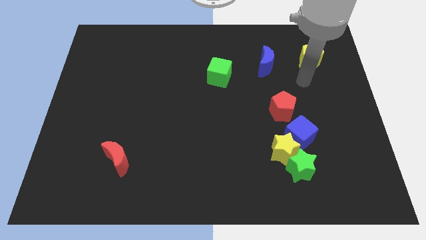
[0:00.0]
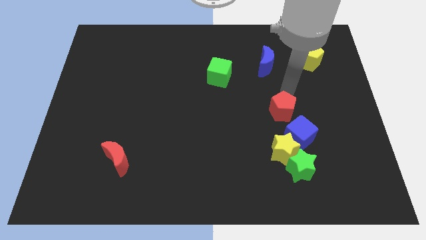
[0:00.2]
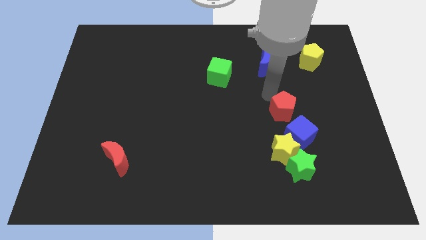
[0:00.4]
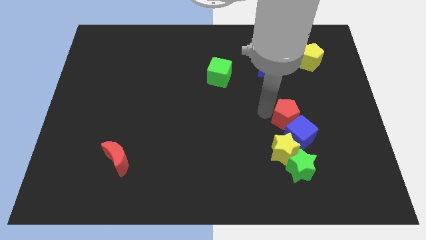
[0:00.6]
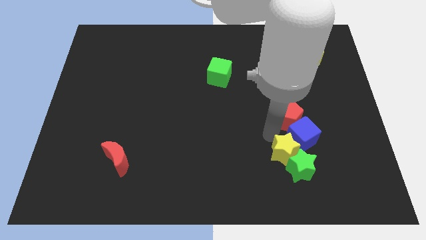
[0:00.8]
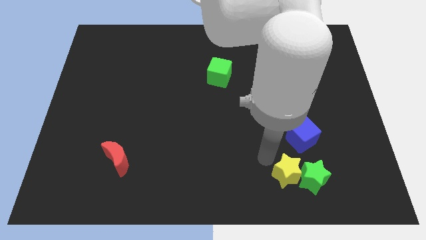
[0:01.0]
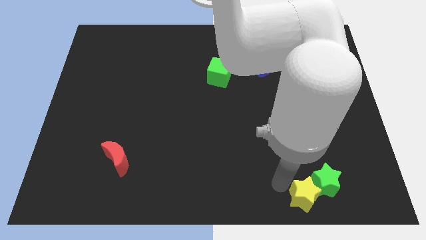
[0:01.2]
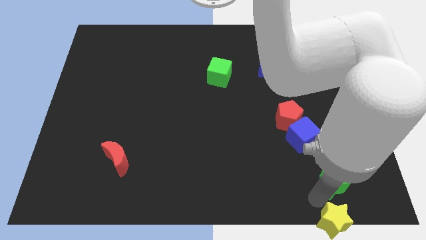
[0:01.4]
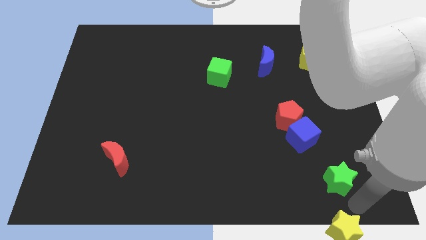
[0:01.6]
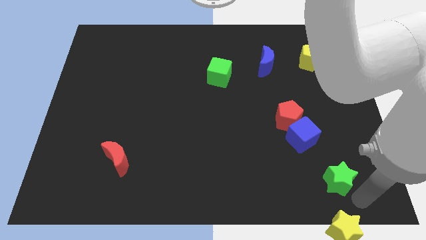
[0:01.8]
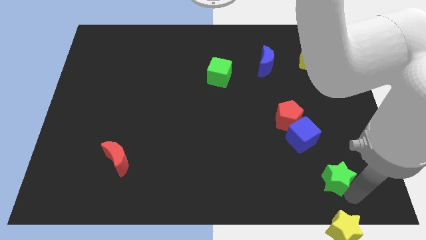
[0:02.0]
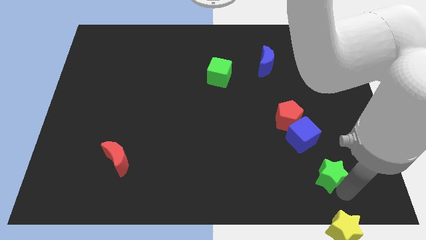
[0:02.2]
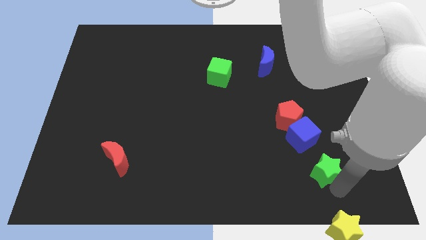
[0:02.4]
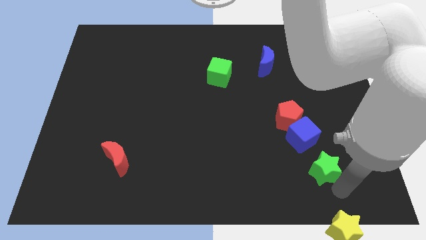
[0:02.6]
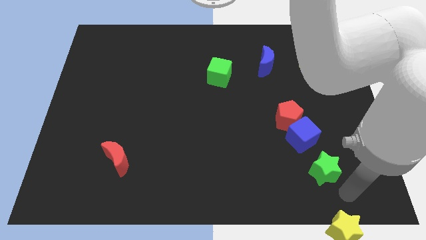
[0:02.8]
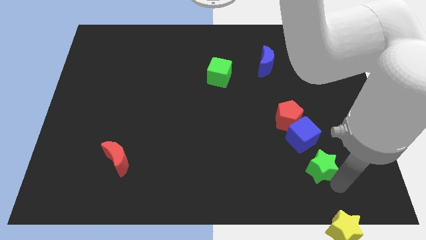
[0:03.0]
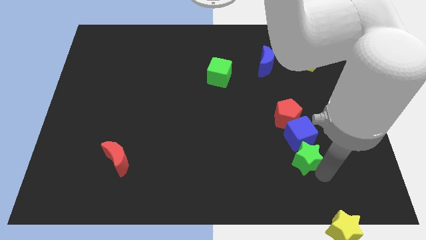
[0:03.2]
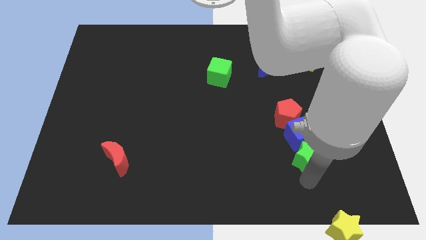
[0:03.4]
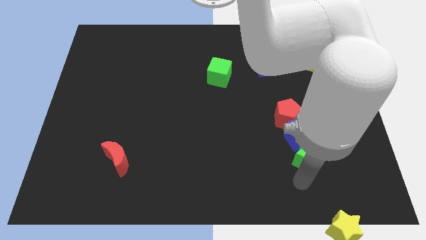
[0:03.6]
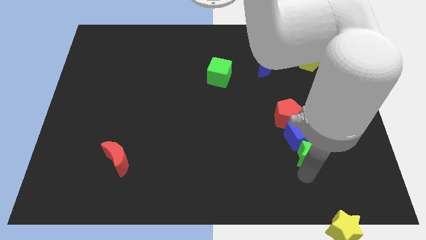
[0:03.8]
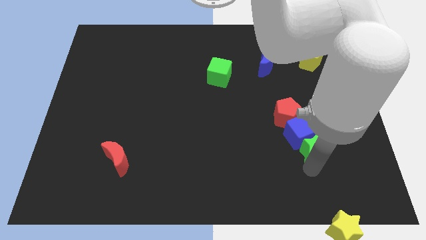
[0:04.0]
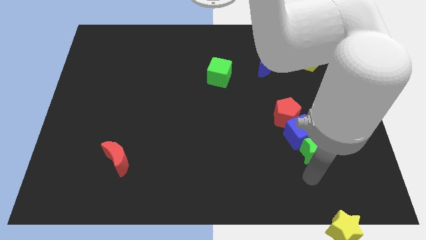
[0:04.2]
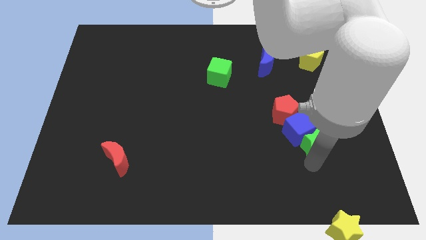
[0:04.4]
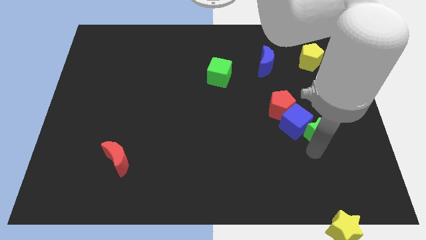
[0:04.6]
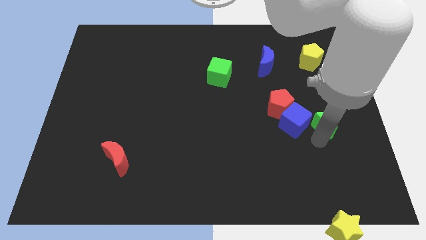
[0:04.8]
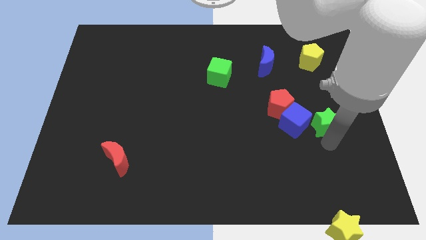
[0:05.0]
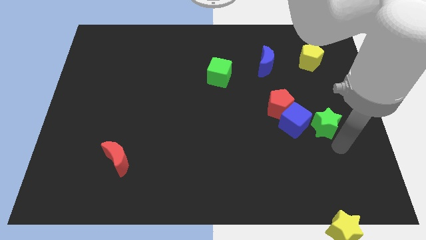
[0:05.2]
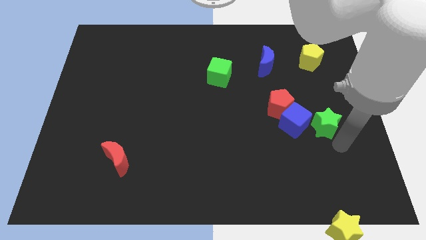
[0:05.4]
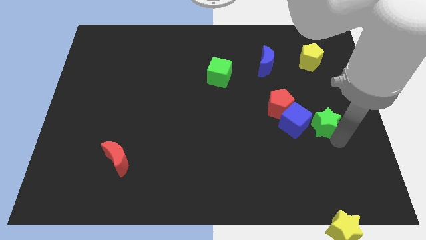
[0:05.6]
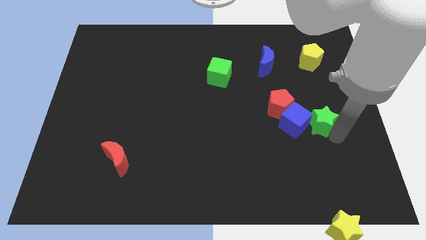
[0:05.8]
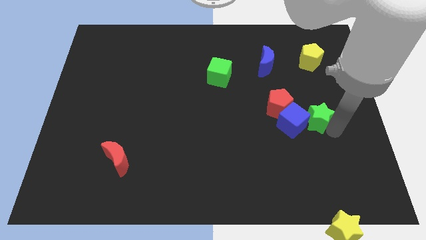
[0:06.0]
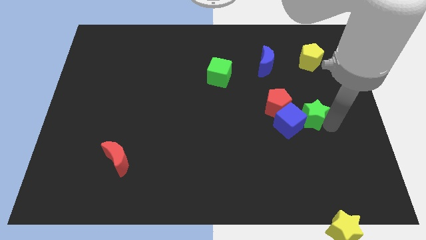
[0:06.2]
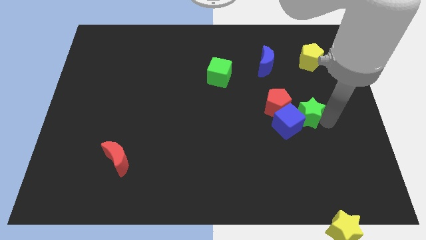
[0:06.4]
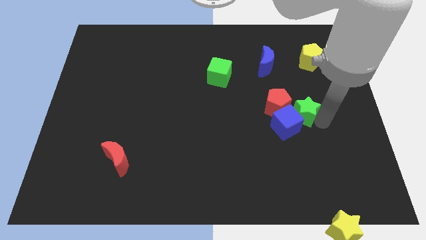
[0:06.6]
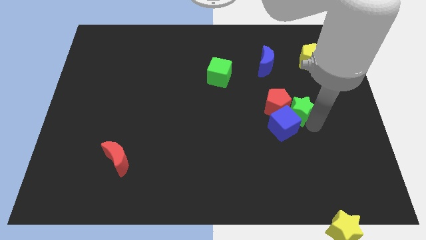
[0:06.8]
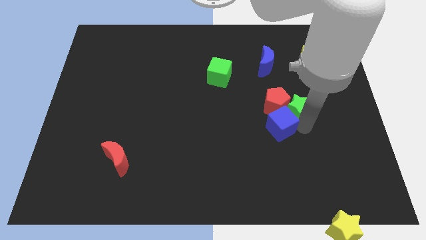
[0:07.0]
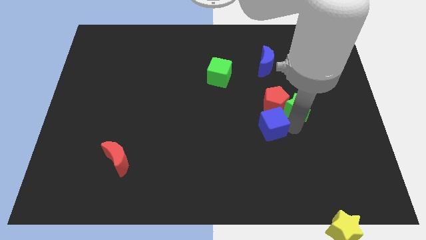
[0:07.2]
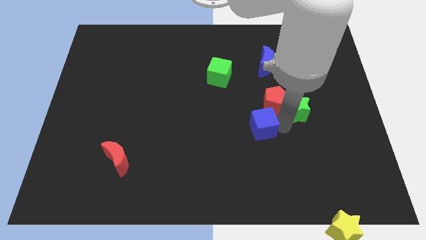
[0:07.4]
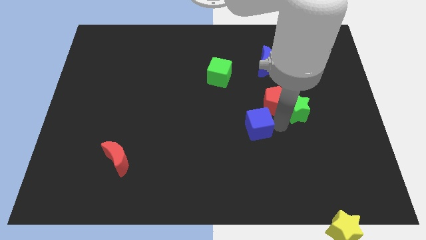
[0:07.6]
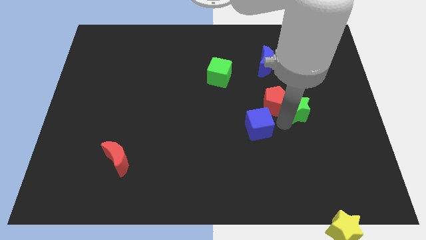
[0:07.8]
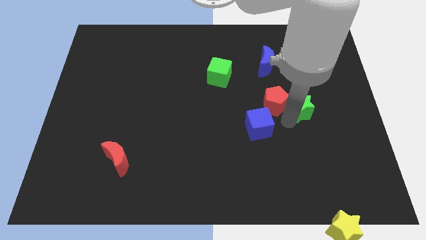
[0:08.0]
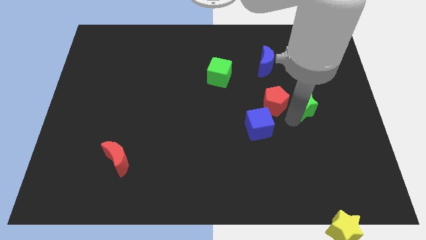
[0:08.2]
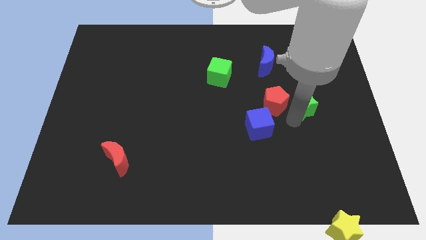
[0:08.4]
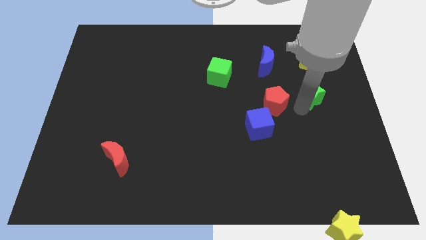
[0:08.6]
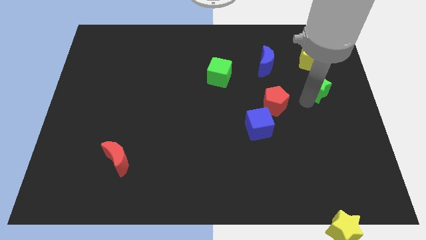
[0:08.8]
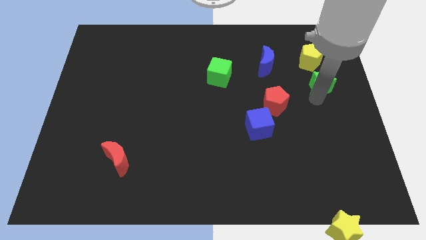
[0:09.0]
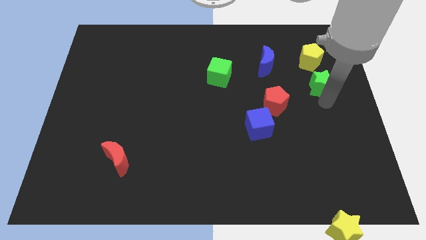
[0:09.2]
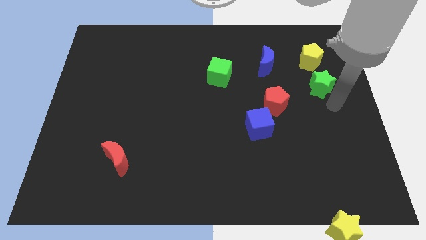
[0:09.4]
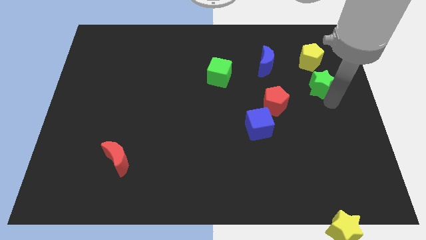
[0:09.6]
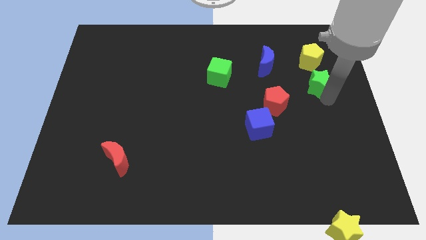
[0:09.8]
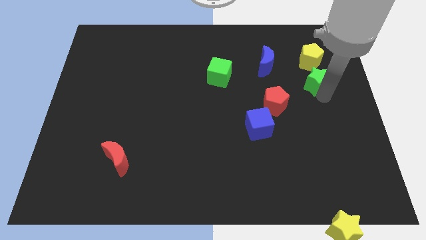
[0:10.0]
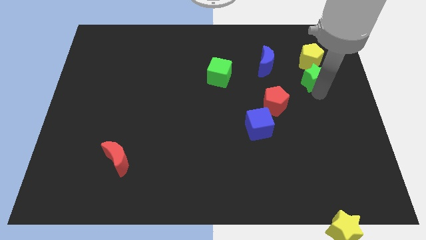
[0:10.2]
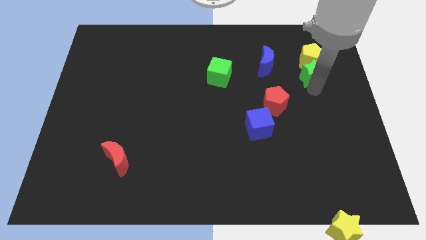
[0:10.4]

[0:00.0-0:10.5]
put the green star towards the yellow pentagon

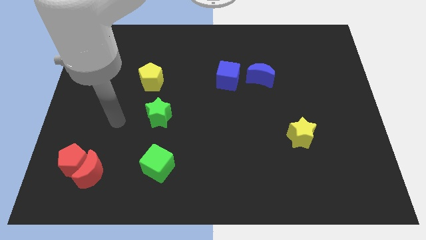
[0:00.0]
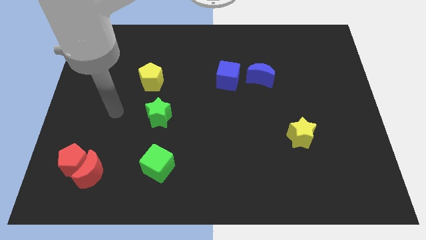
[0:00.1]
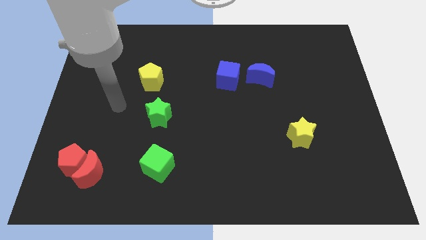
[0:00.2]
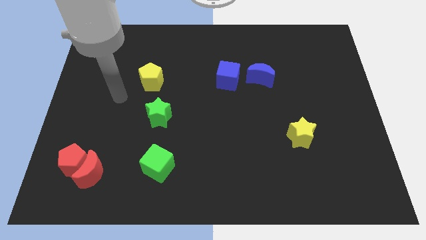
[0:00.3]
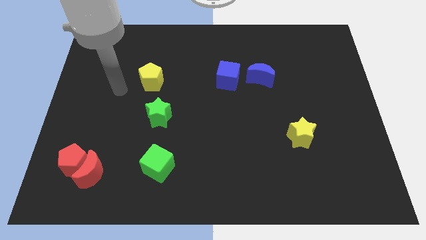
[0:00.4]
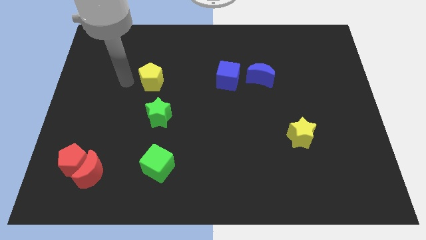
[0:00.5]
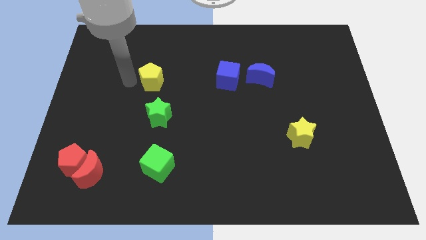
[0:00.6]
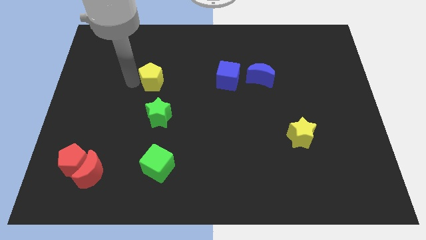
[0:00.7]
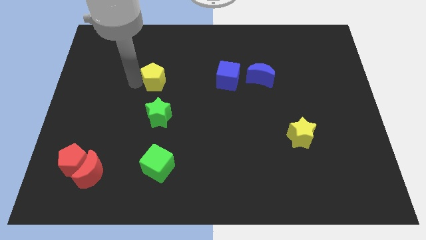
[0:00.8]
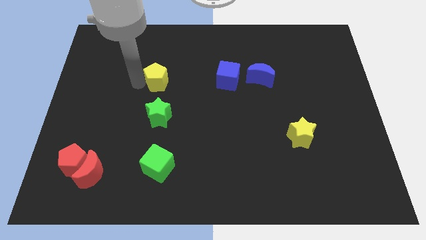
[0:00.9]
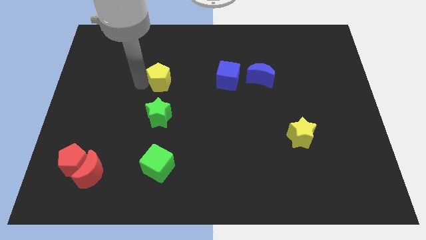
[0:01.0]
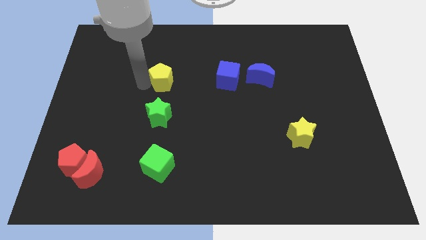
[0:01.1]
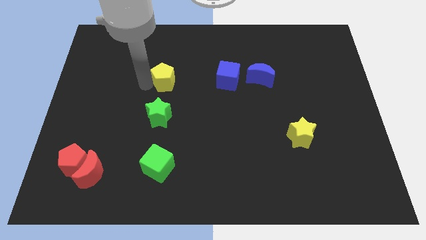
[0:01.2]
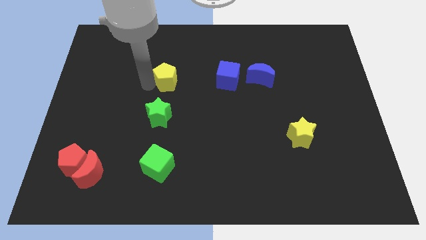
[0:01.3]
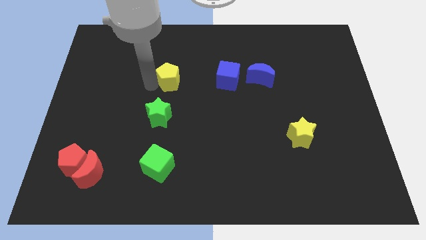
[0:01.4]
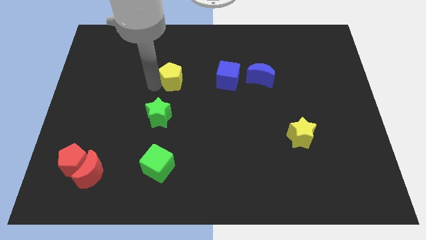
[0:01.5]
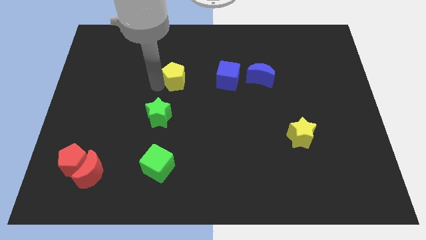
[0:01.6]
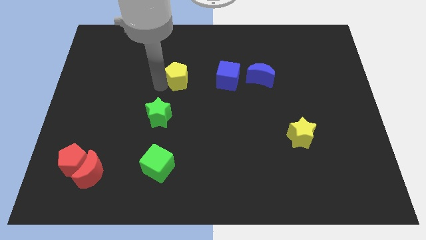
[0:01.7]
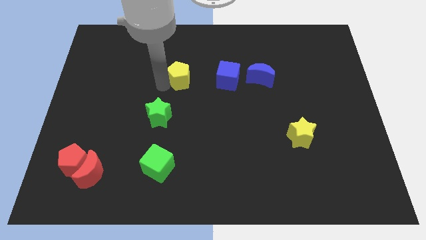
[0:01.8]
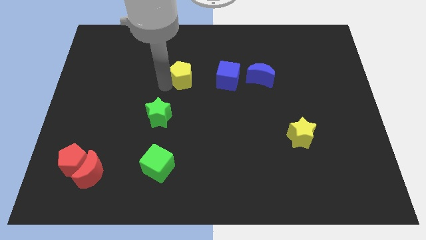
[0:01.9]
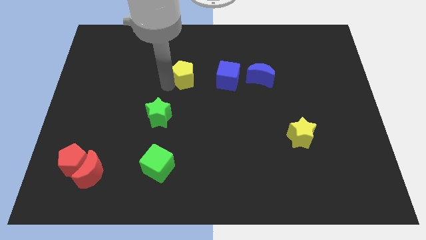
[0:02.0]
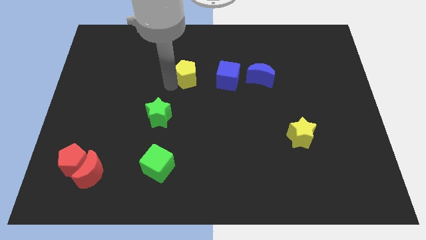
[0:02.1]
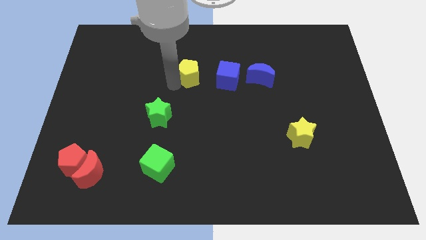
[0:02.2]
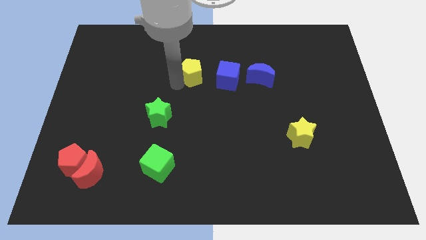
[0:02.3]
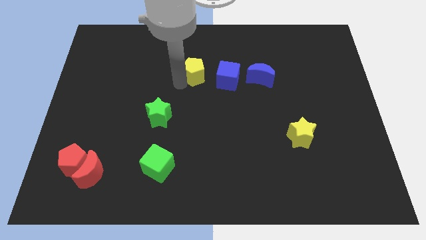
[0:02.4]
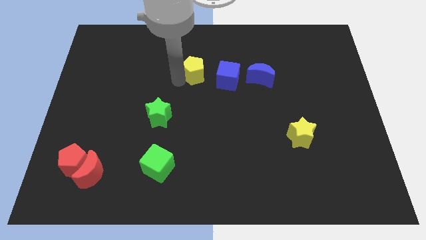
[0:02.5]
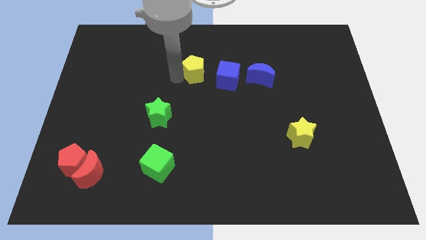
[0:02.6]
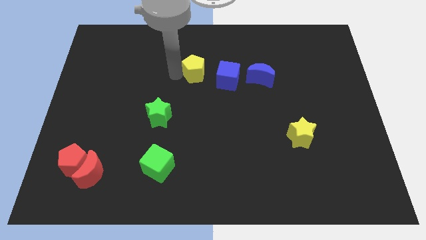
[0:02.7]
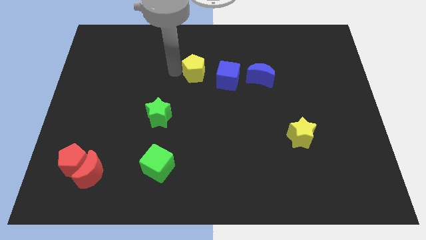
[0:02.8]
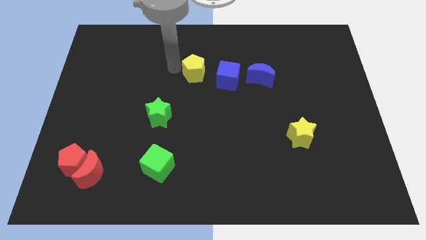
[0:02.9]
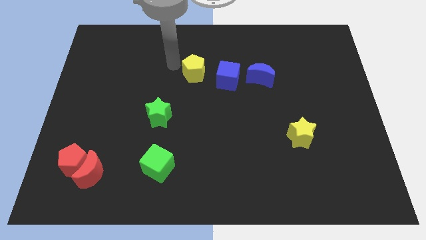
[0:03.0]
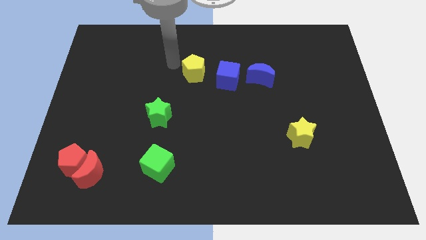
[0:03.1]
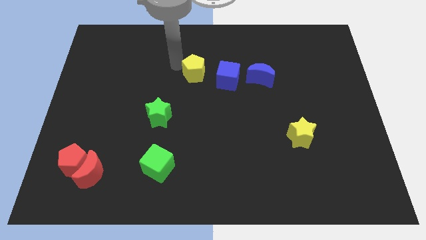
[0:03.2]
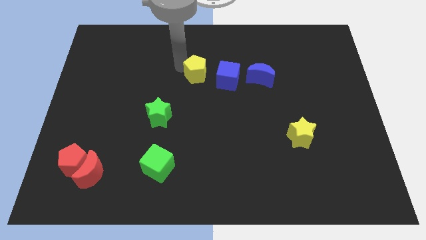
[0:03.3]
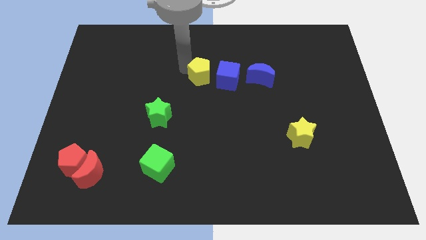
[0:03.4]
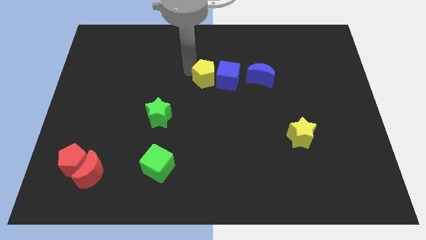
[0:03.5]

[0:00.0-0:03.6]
push the yellow pentagon close to the blue cube
